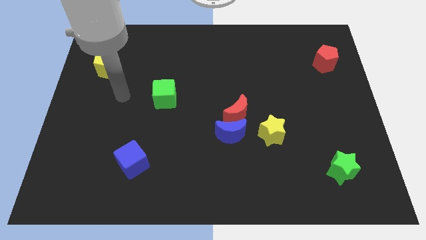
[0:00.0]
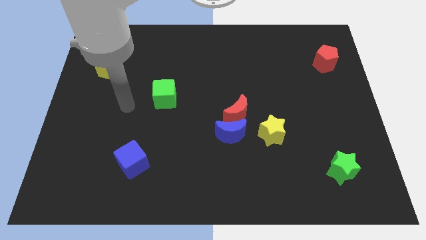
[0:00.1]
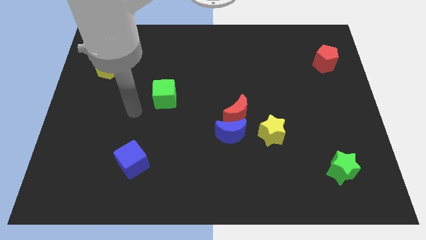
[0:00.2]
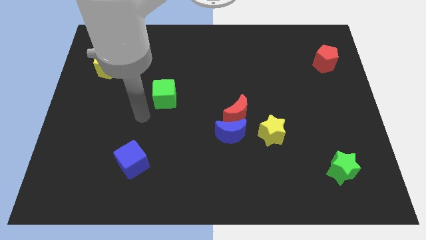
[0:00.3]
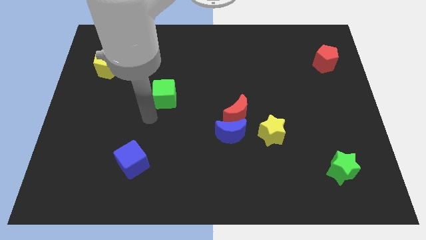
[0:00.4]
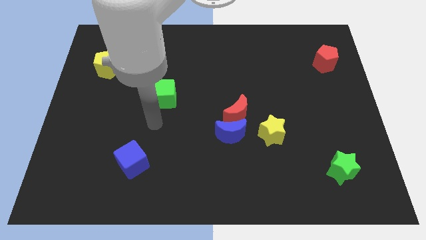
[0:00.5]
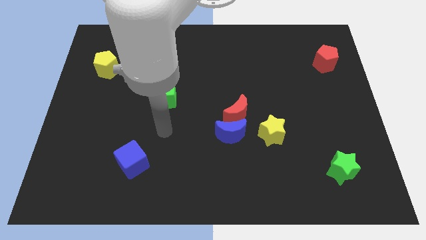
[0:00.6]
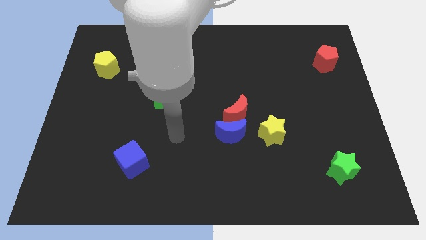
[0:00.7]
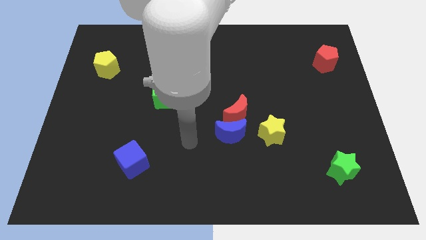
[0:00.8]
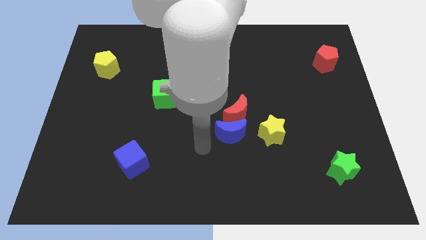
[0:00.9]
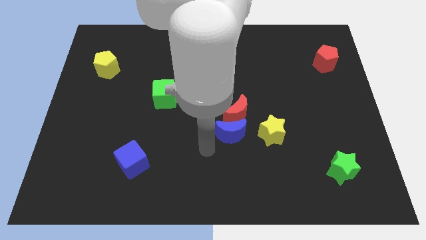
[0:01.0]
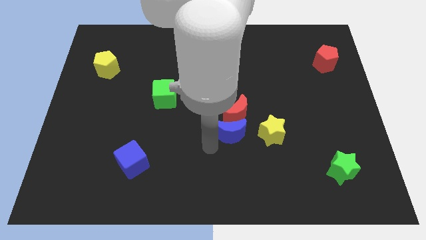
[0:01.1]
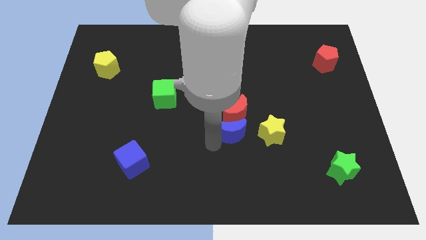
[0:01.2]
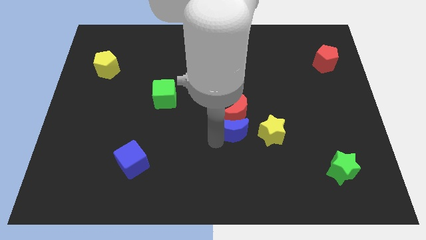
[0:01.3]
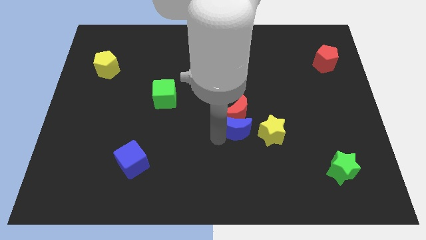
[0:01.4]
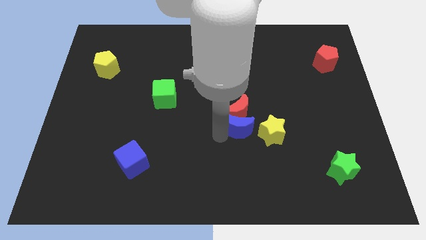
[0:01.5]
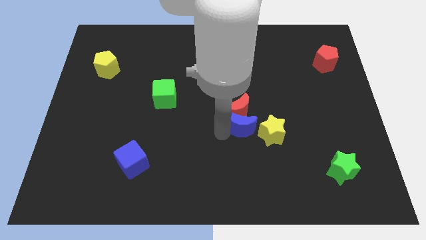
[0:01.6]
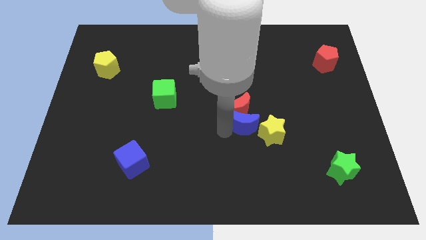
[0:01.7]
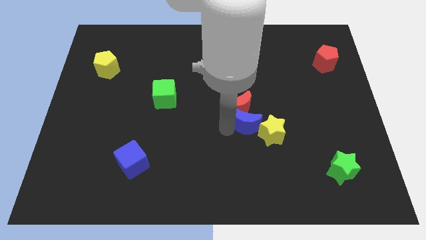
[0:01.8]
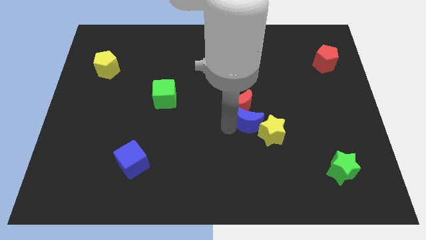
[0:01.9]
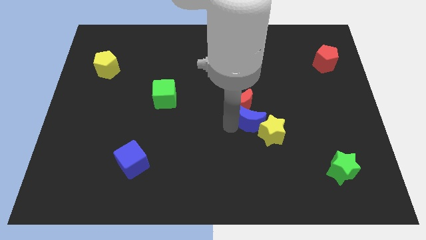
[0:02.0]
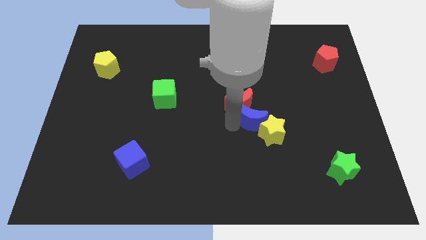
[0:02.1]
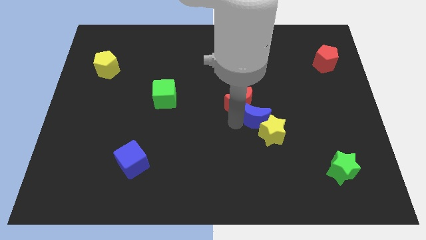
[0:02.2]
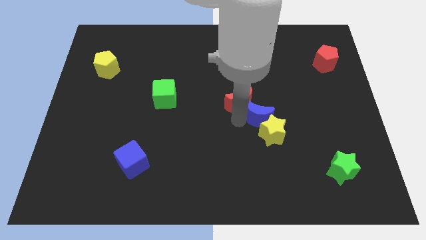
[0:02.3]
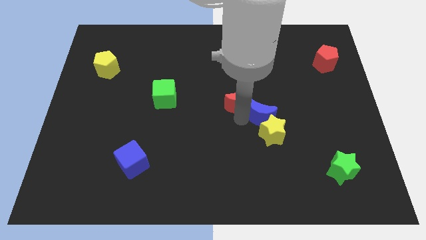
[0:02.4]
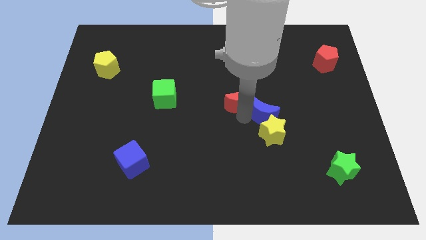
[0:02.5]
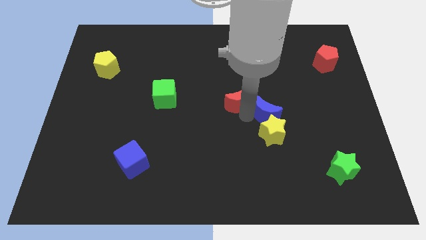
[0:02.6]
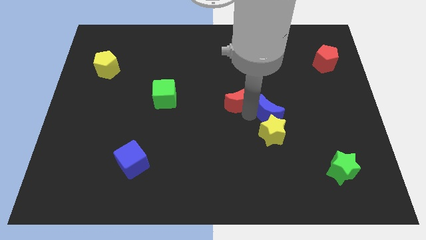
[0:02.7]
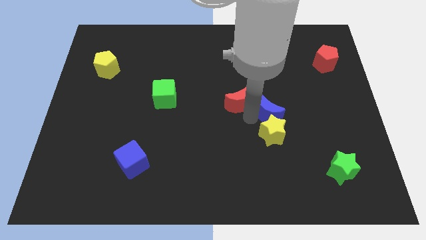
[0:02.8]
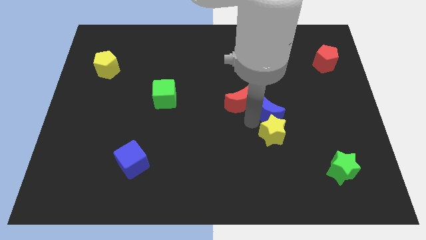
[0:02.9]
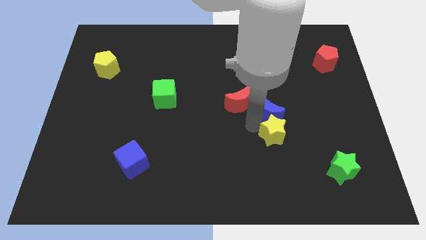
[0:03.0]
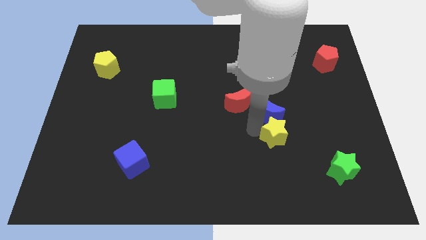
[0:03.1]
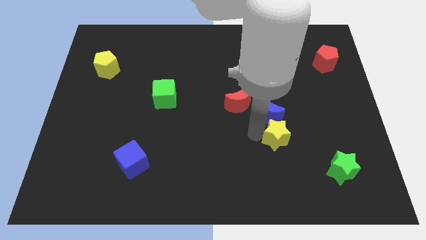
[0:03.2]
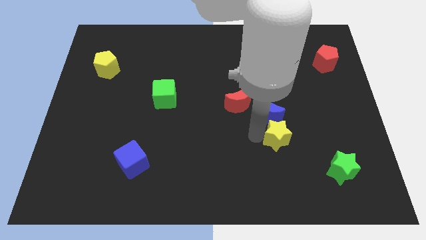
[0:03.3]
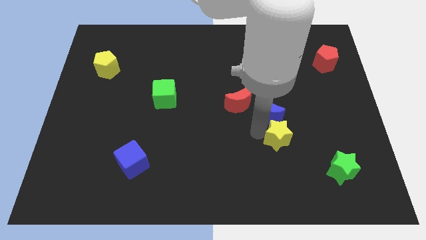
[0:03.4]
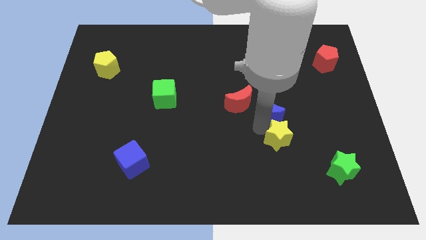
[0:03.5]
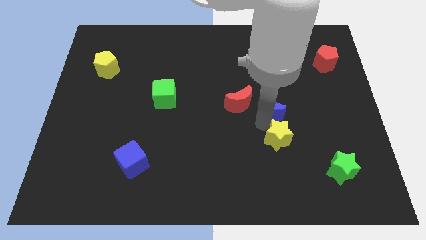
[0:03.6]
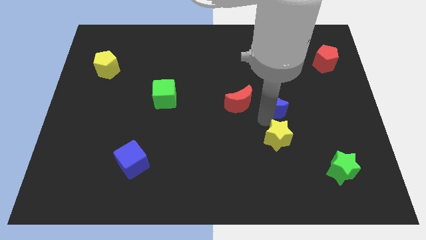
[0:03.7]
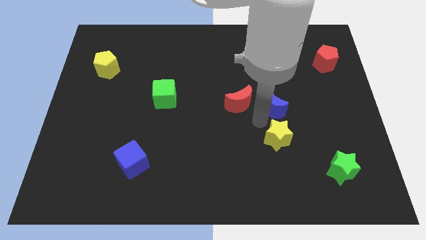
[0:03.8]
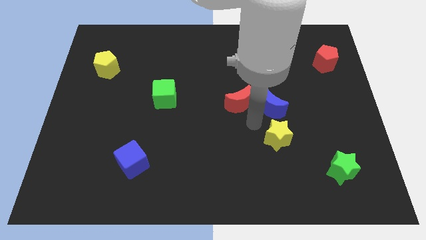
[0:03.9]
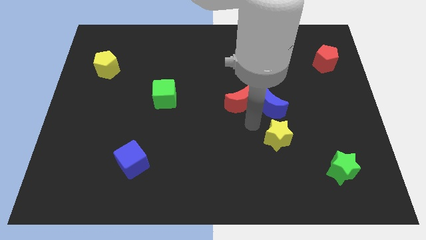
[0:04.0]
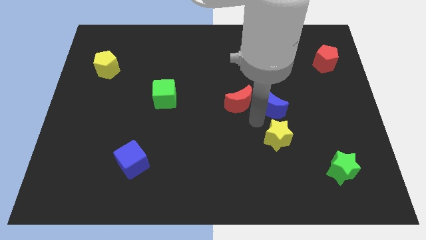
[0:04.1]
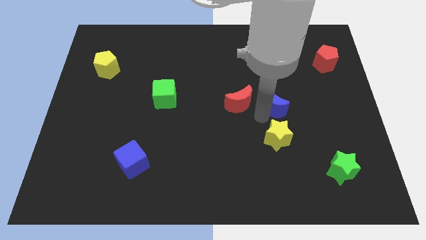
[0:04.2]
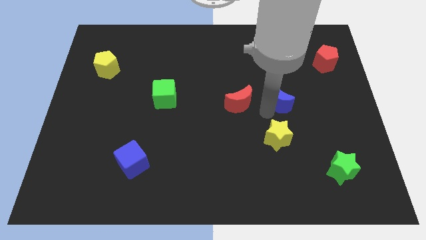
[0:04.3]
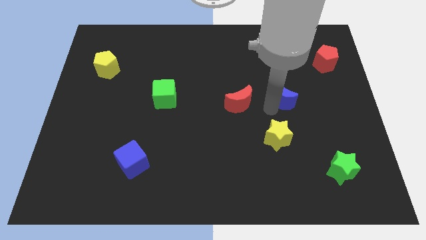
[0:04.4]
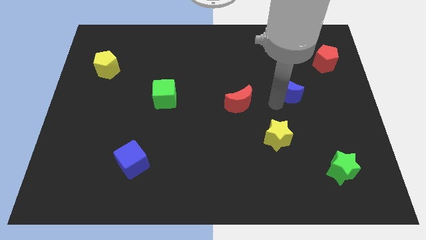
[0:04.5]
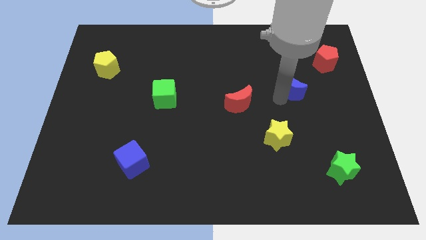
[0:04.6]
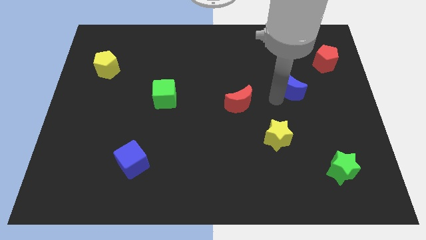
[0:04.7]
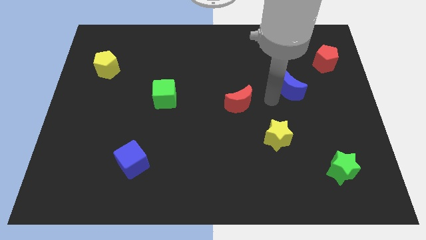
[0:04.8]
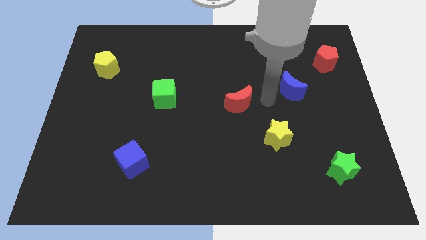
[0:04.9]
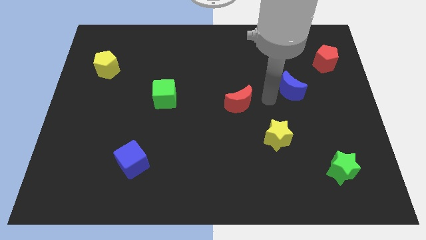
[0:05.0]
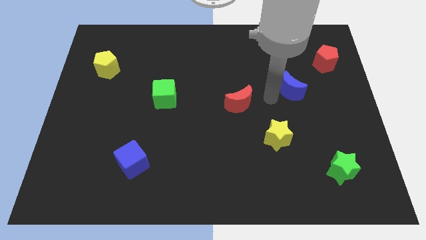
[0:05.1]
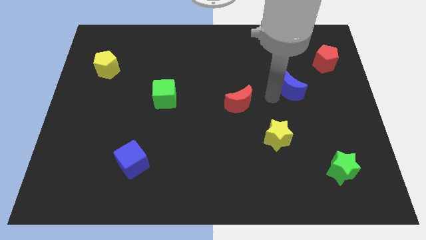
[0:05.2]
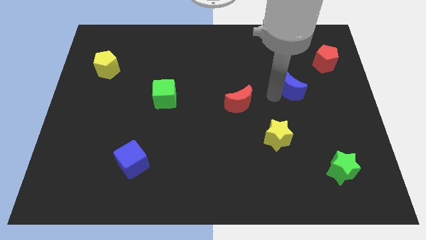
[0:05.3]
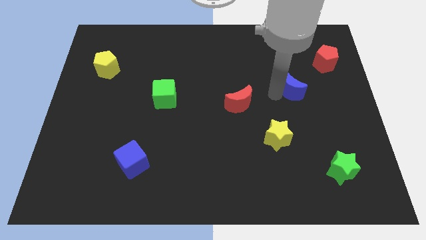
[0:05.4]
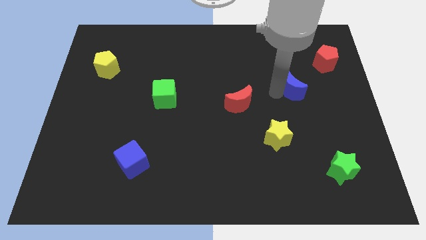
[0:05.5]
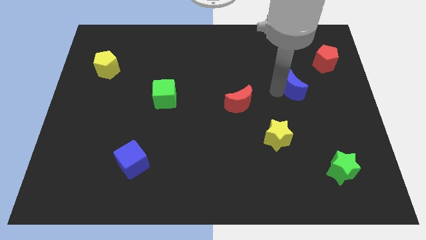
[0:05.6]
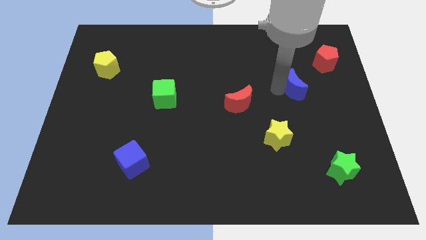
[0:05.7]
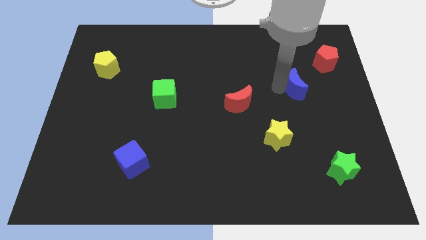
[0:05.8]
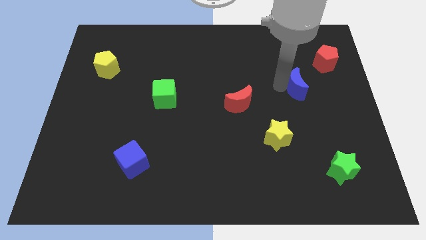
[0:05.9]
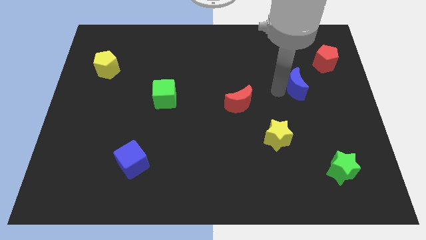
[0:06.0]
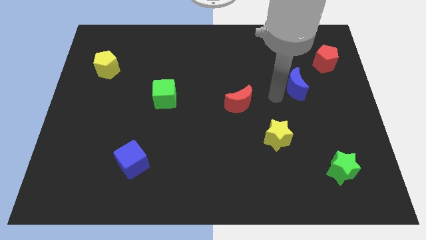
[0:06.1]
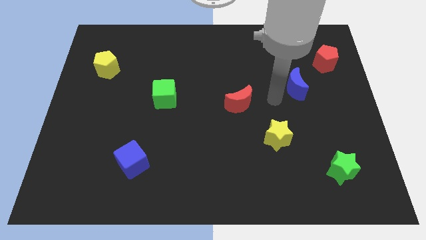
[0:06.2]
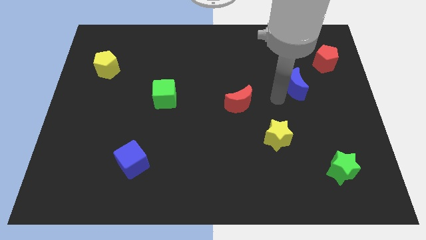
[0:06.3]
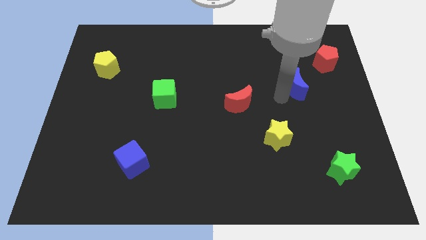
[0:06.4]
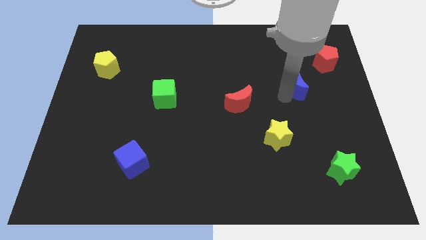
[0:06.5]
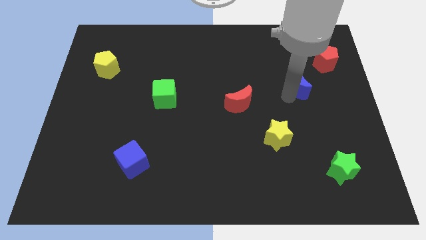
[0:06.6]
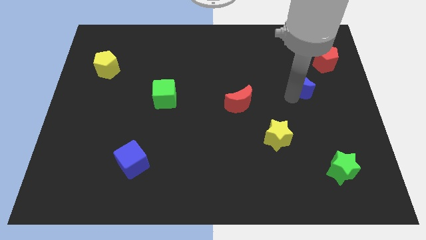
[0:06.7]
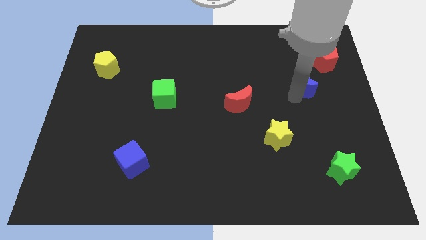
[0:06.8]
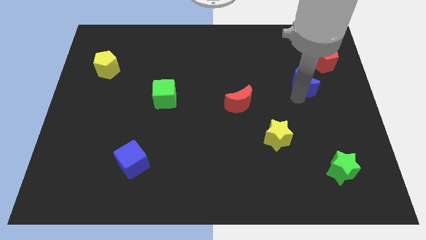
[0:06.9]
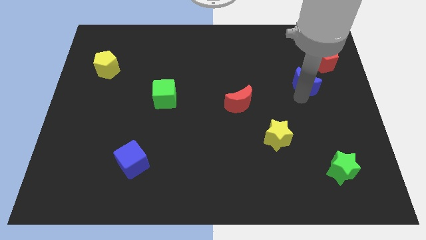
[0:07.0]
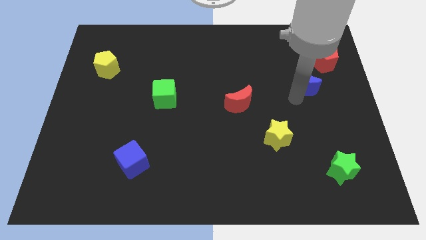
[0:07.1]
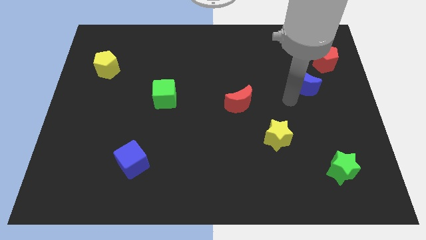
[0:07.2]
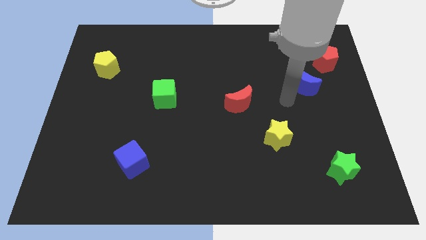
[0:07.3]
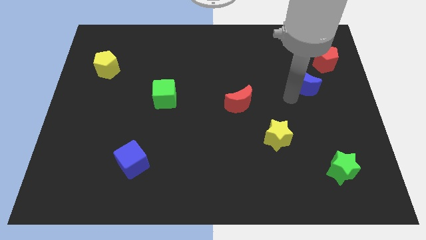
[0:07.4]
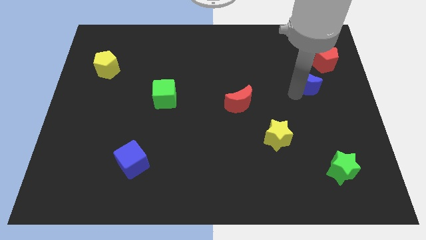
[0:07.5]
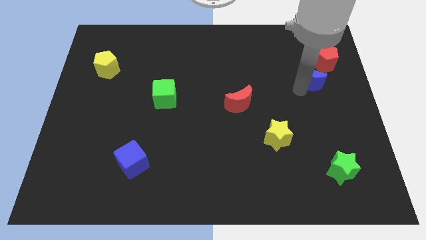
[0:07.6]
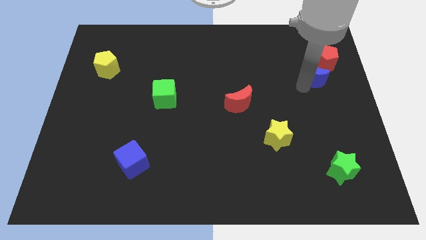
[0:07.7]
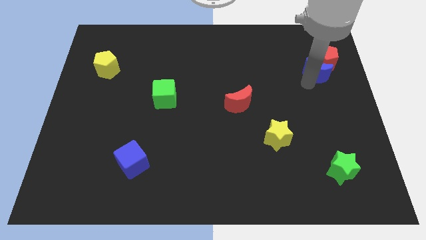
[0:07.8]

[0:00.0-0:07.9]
slide the blue moon to the red pentagon
